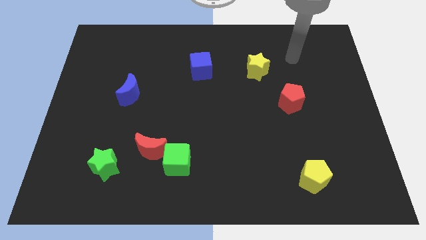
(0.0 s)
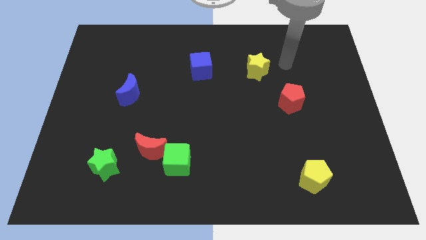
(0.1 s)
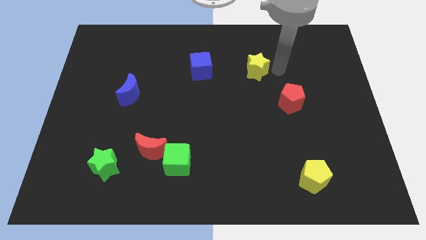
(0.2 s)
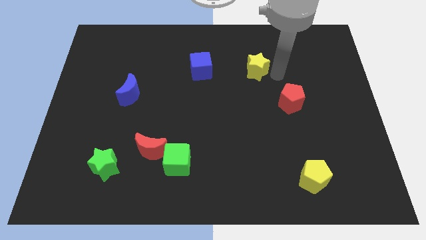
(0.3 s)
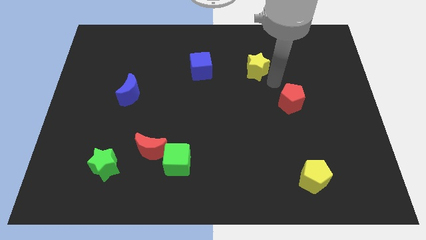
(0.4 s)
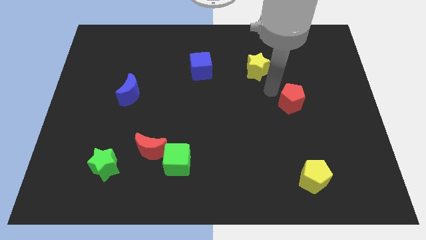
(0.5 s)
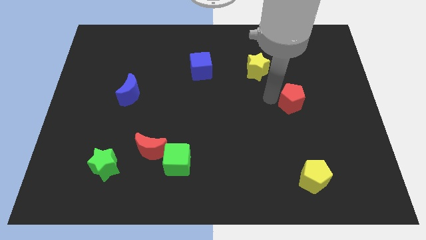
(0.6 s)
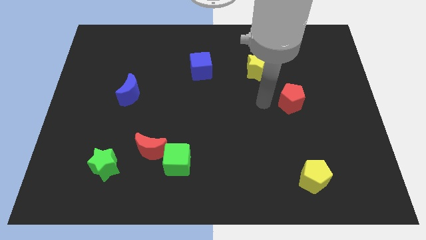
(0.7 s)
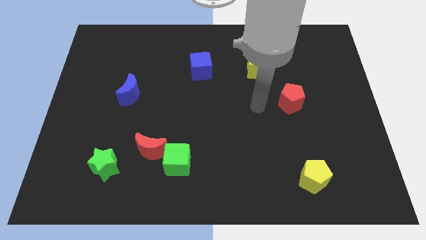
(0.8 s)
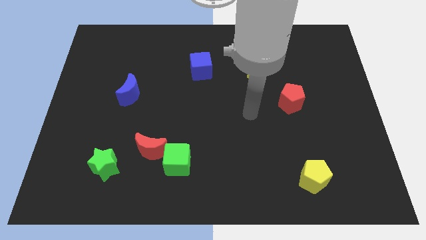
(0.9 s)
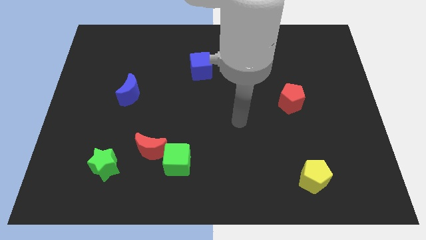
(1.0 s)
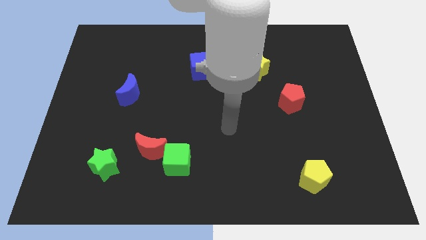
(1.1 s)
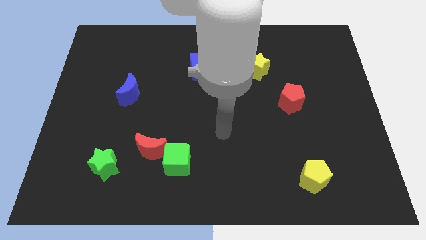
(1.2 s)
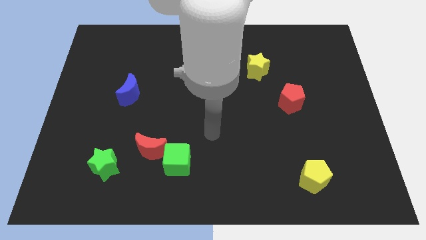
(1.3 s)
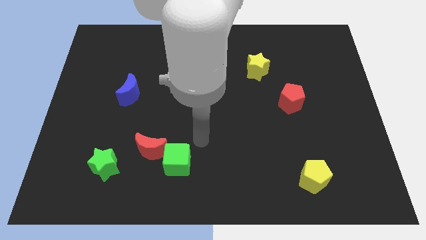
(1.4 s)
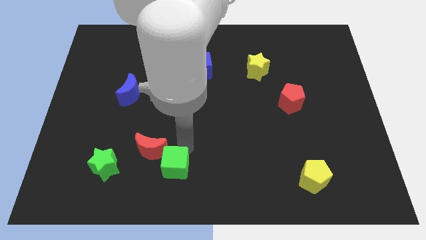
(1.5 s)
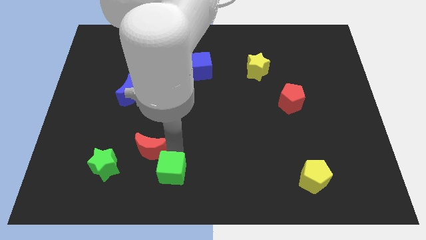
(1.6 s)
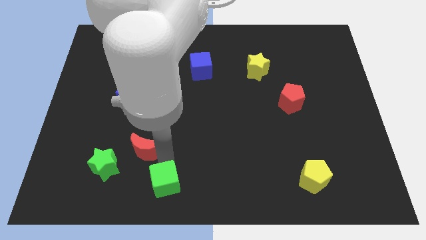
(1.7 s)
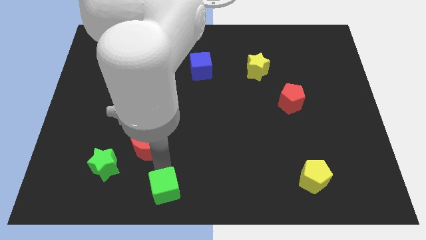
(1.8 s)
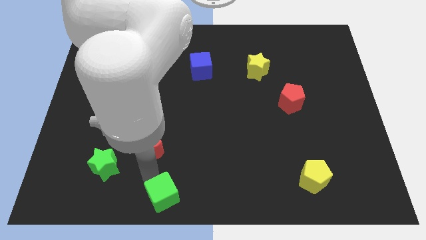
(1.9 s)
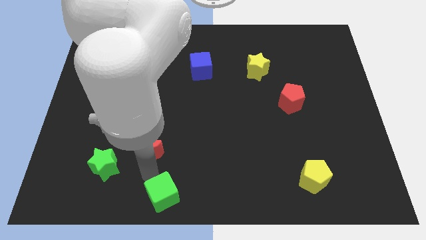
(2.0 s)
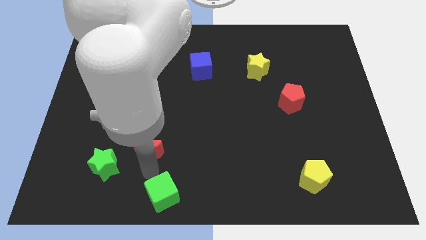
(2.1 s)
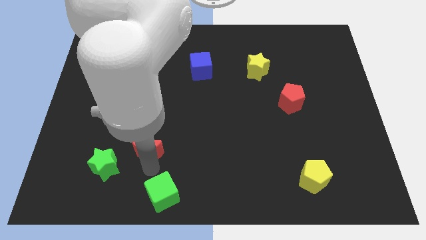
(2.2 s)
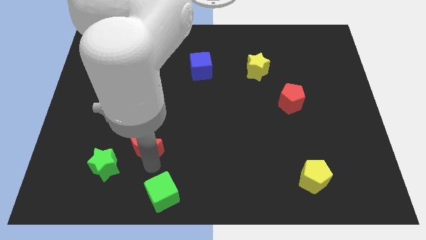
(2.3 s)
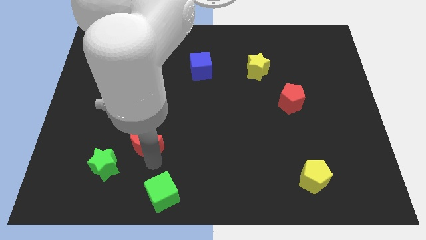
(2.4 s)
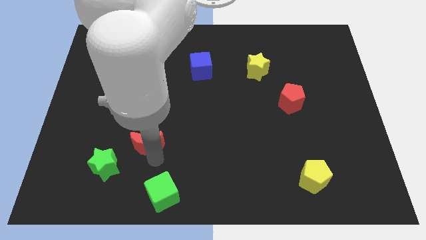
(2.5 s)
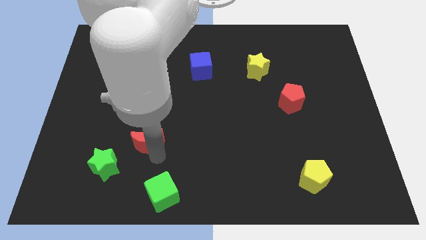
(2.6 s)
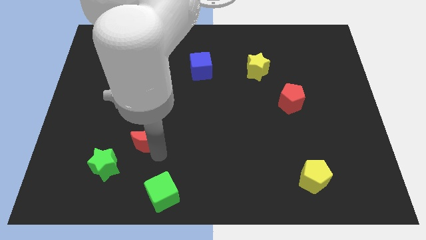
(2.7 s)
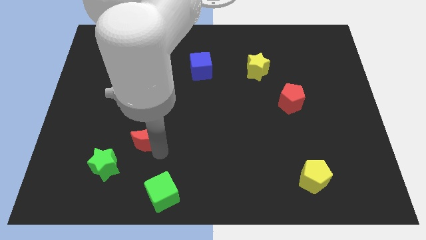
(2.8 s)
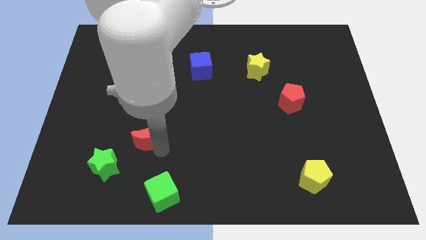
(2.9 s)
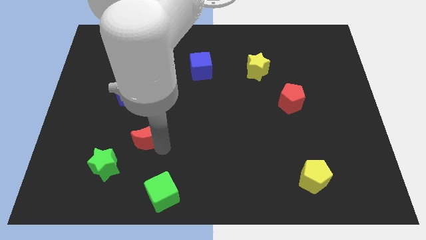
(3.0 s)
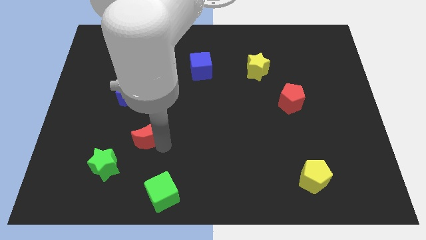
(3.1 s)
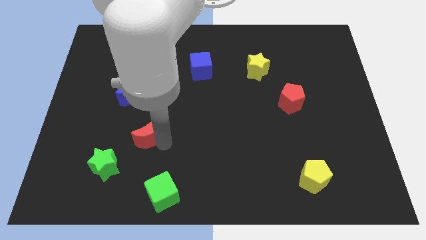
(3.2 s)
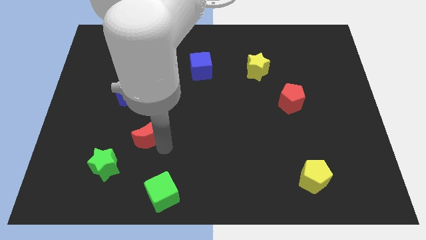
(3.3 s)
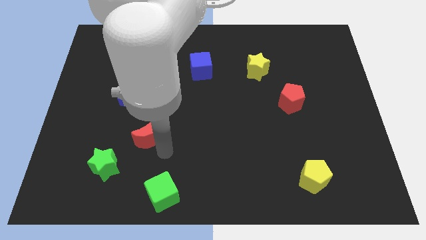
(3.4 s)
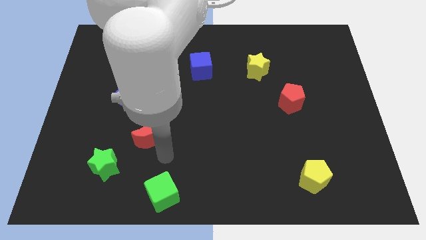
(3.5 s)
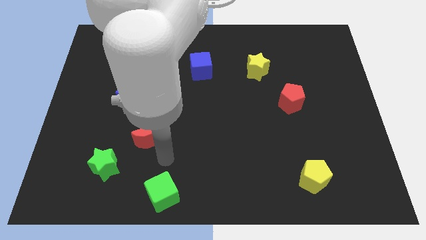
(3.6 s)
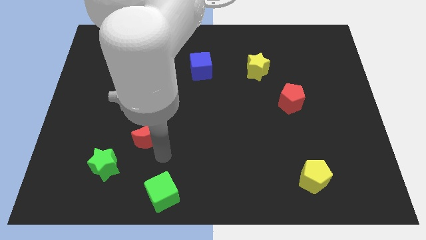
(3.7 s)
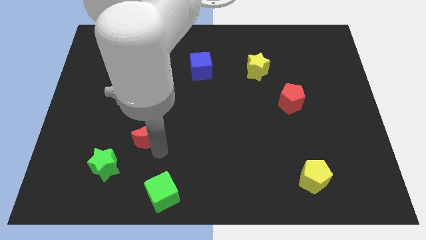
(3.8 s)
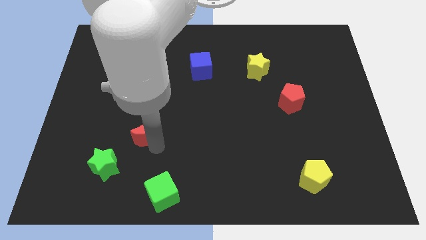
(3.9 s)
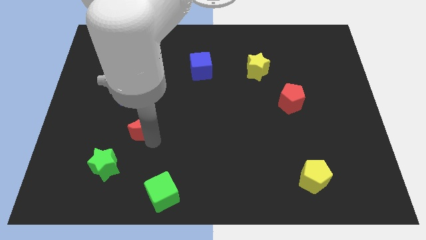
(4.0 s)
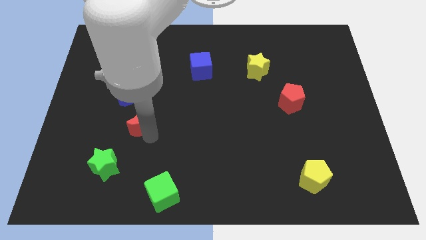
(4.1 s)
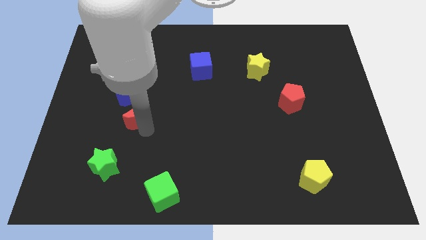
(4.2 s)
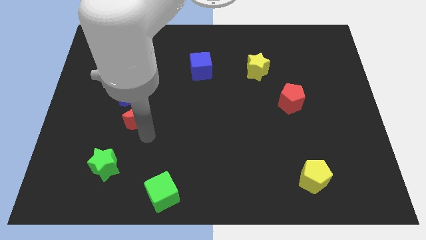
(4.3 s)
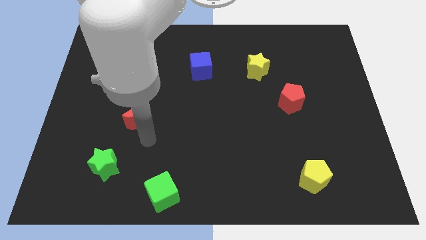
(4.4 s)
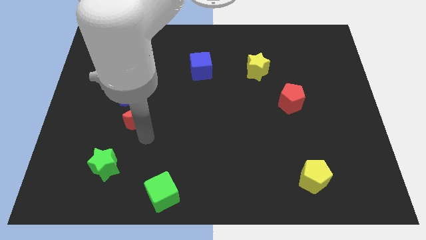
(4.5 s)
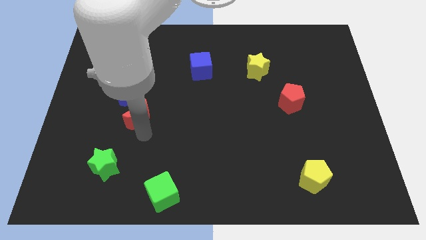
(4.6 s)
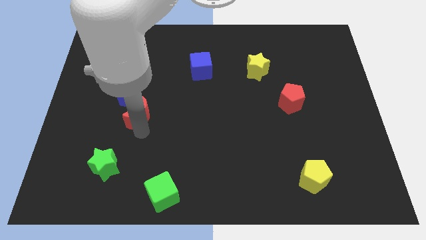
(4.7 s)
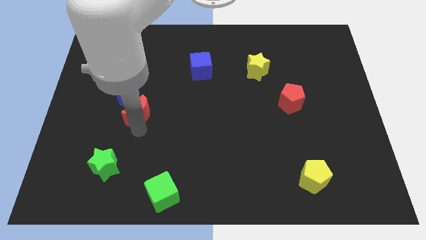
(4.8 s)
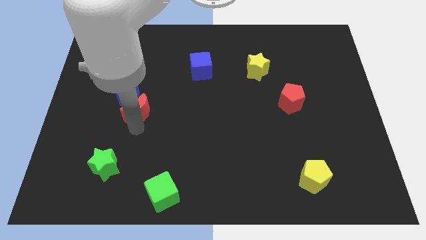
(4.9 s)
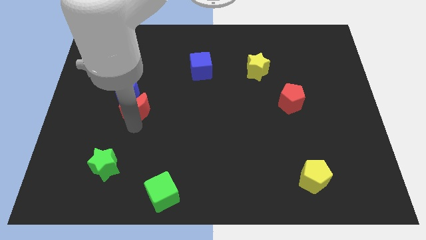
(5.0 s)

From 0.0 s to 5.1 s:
put the red moon to the blue moon

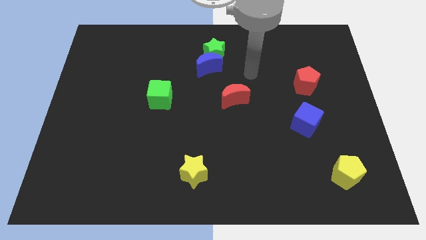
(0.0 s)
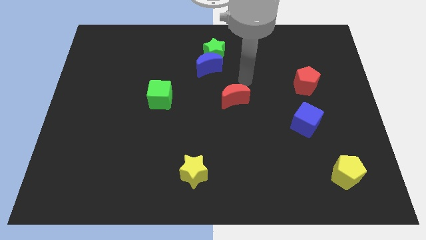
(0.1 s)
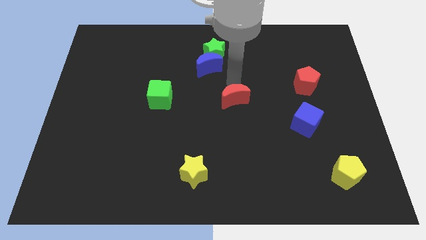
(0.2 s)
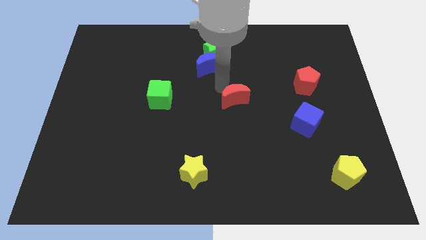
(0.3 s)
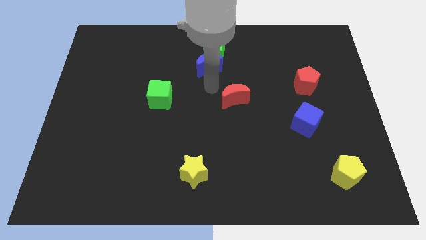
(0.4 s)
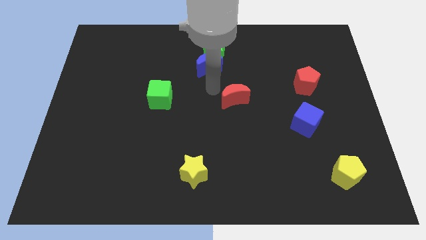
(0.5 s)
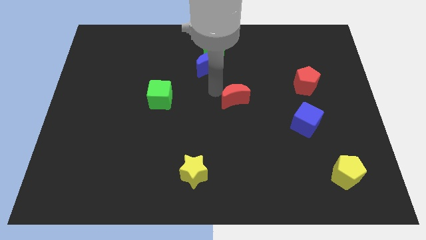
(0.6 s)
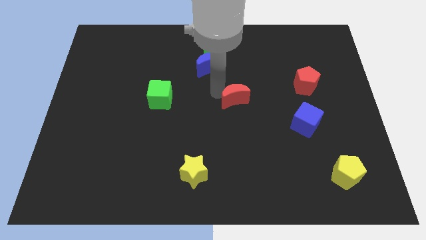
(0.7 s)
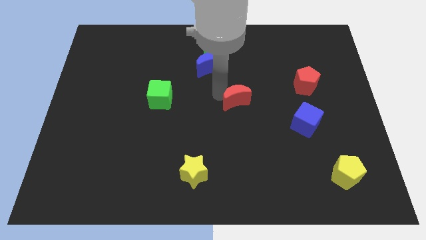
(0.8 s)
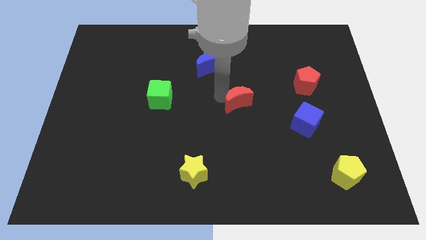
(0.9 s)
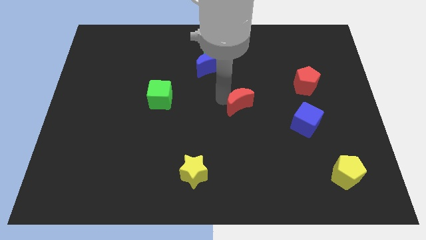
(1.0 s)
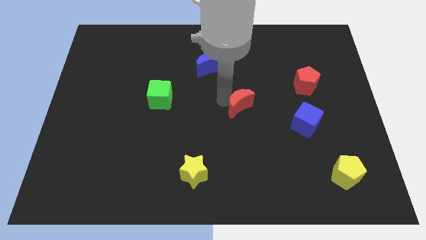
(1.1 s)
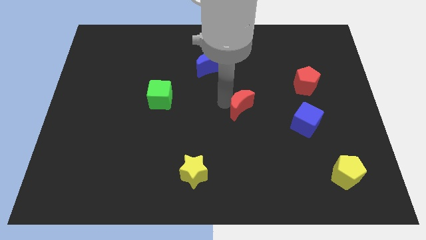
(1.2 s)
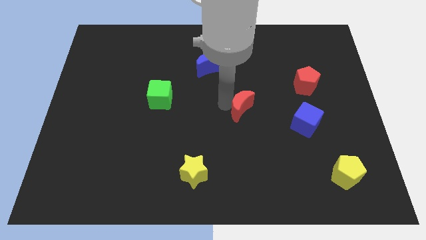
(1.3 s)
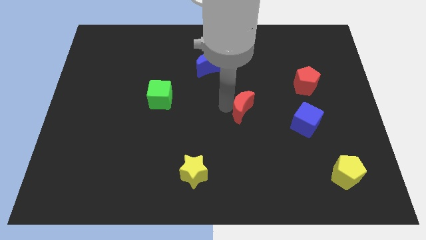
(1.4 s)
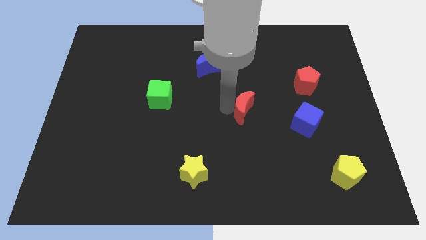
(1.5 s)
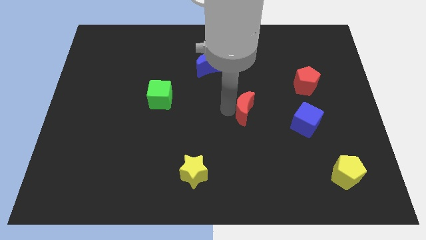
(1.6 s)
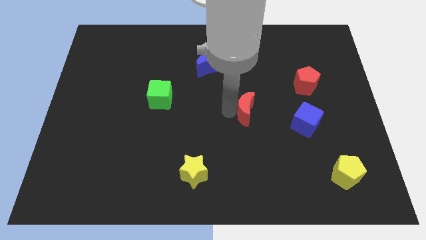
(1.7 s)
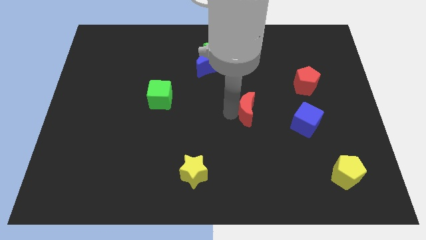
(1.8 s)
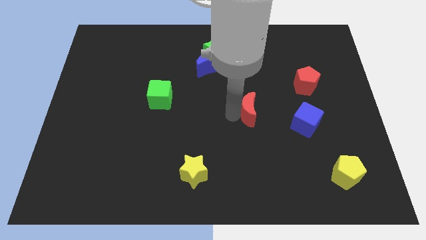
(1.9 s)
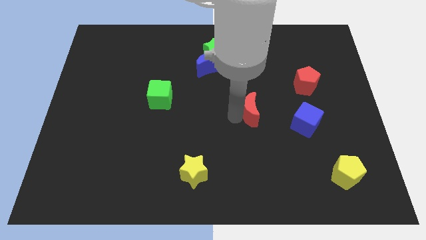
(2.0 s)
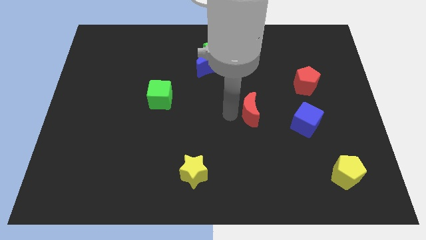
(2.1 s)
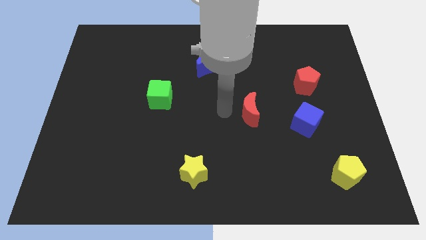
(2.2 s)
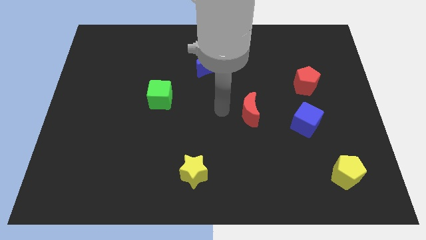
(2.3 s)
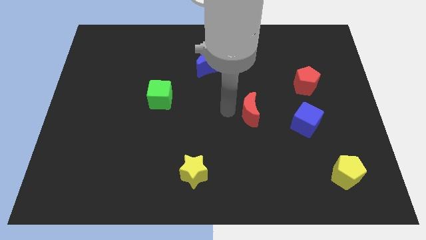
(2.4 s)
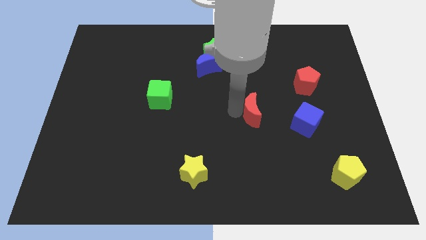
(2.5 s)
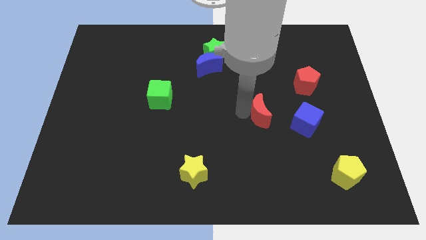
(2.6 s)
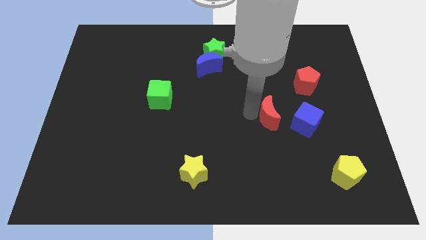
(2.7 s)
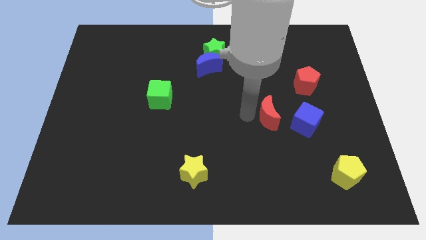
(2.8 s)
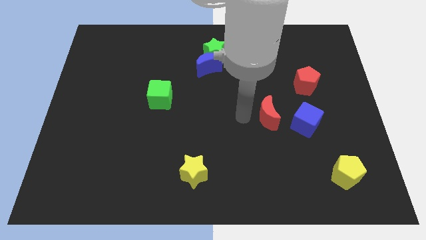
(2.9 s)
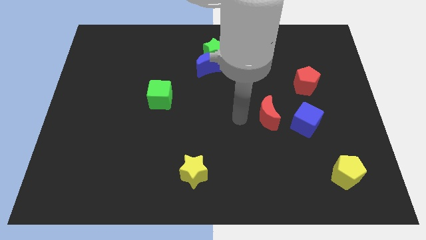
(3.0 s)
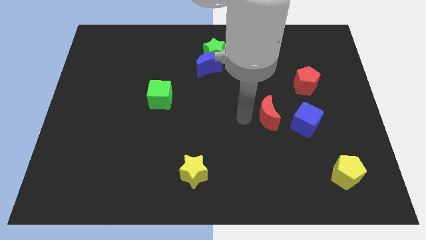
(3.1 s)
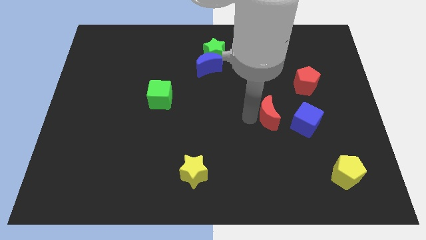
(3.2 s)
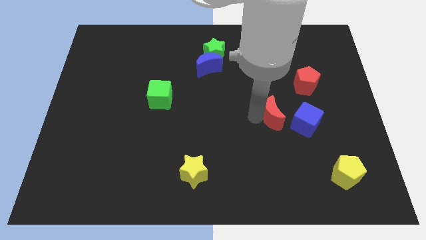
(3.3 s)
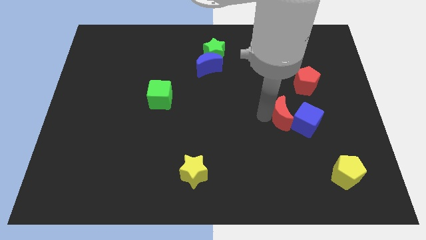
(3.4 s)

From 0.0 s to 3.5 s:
move the red moon to the blue cube
